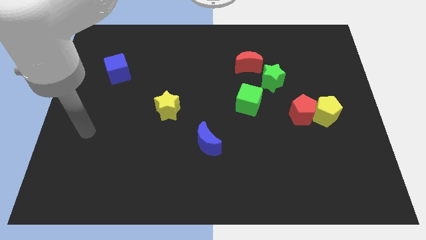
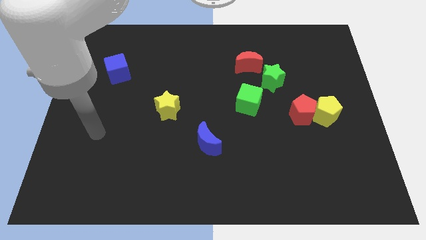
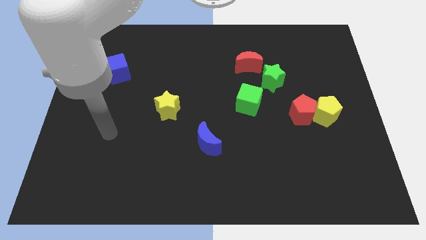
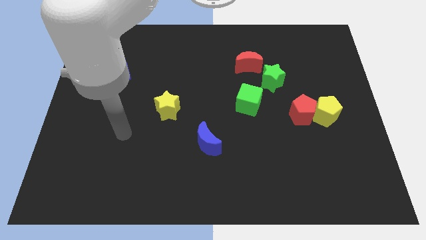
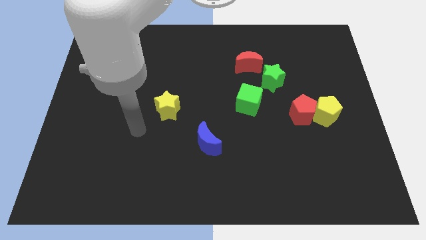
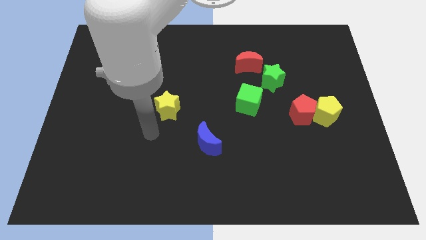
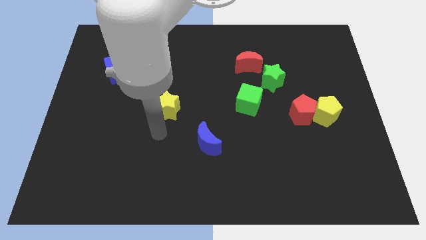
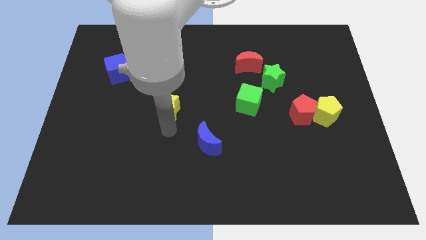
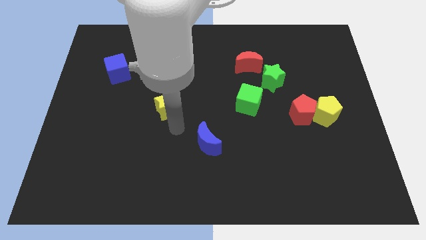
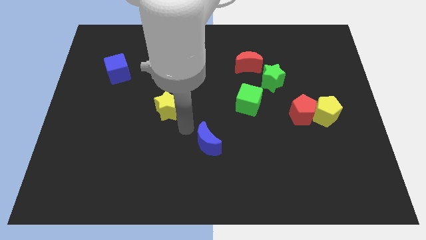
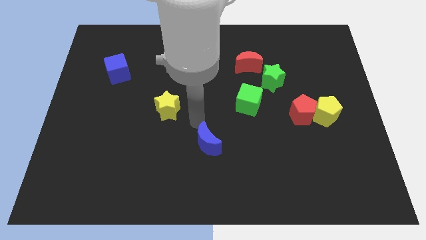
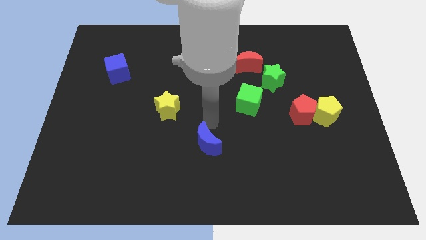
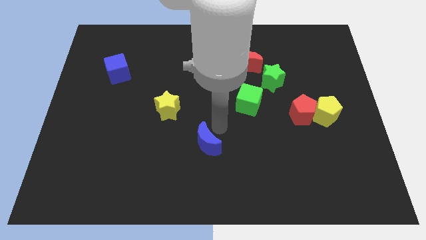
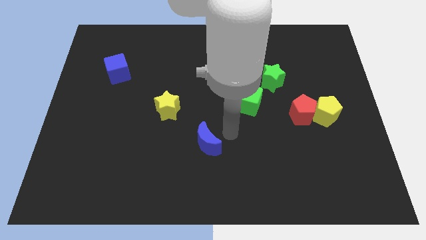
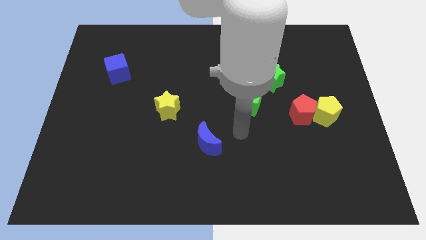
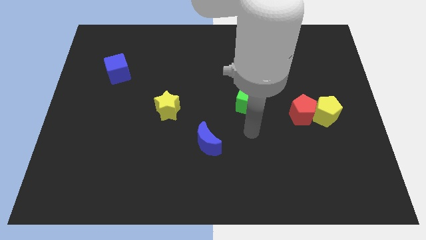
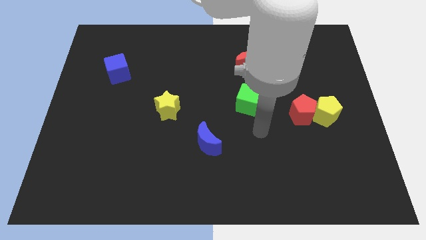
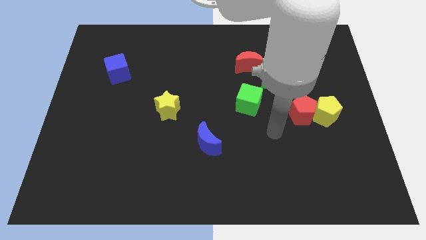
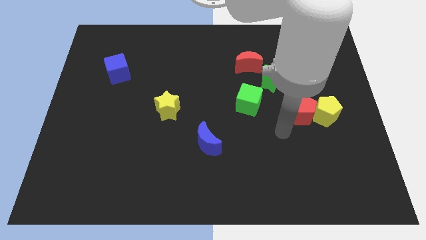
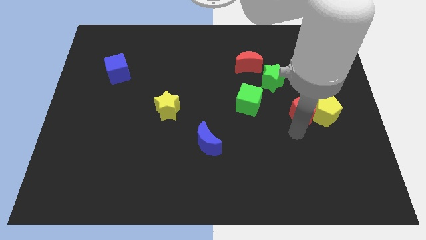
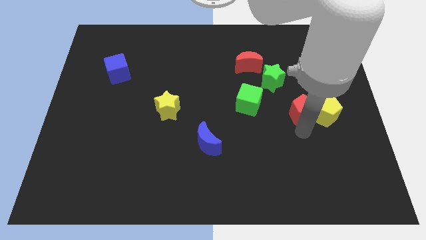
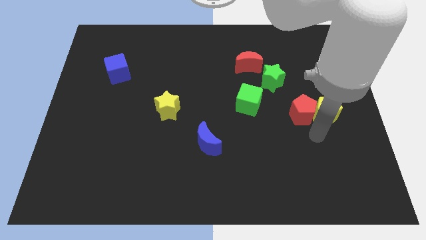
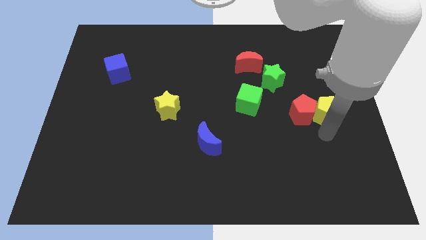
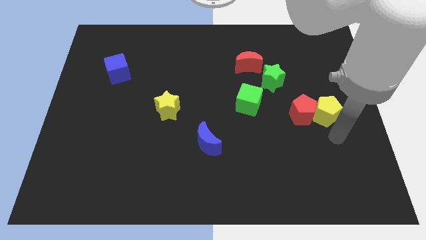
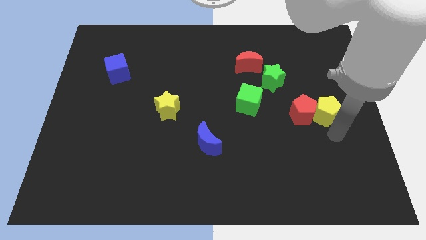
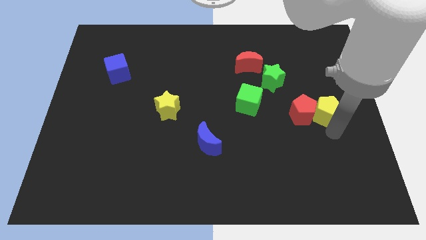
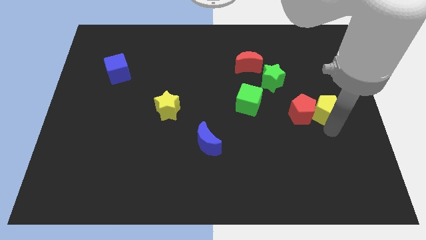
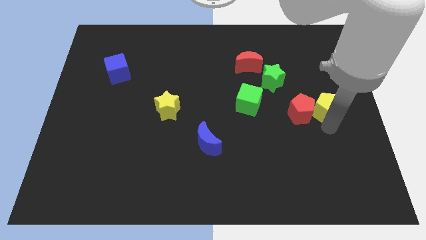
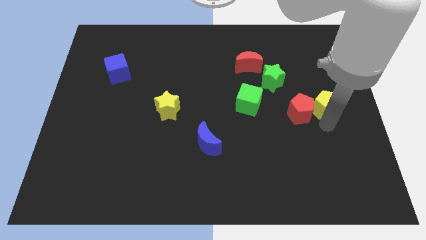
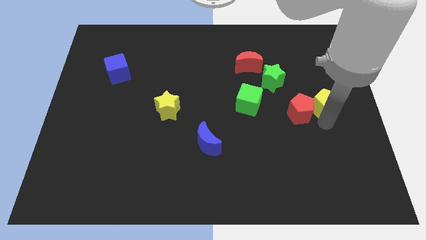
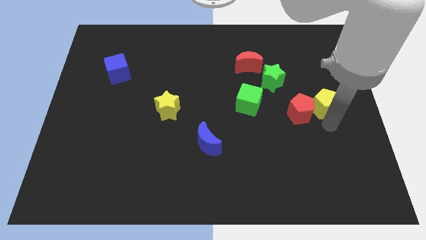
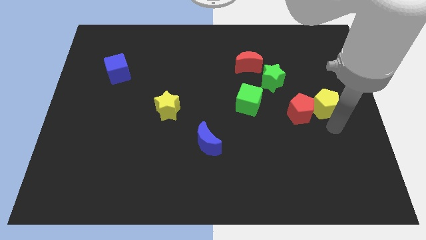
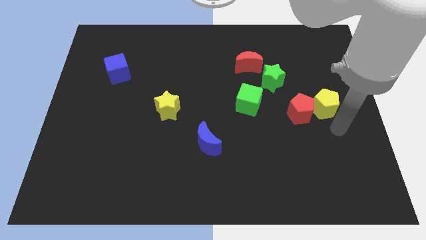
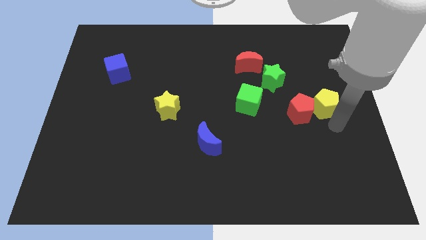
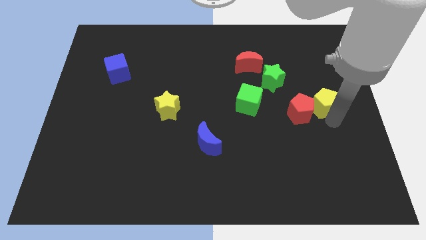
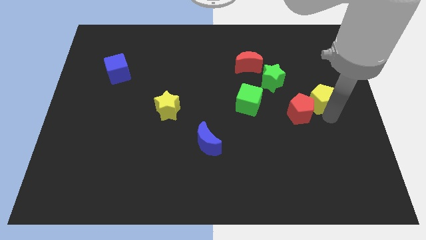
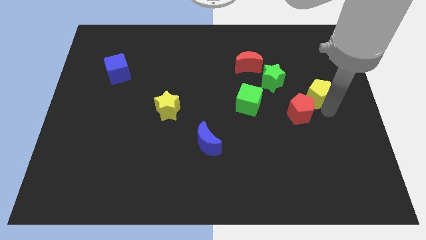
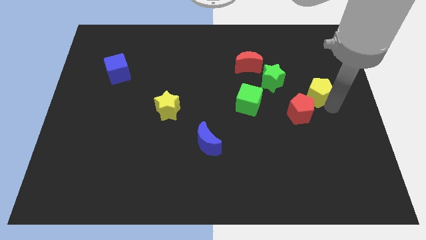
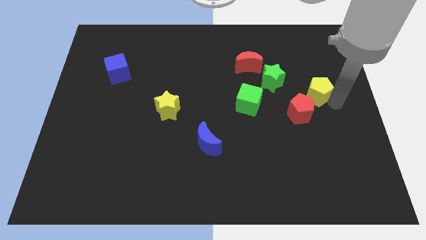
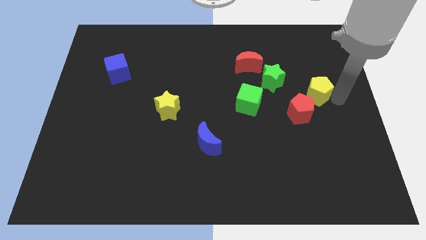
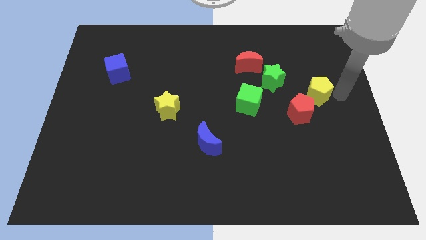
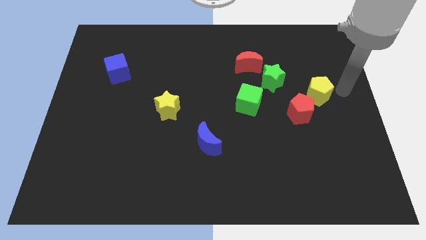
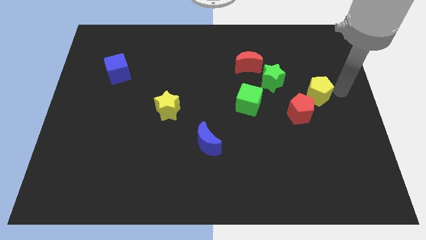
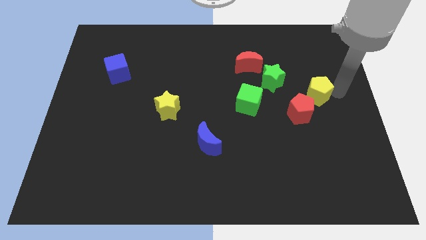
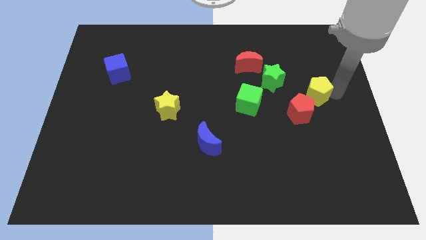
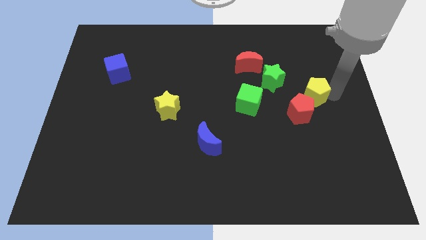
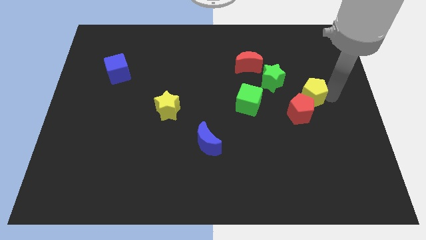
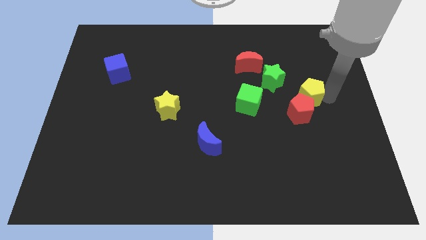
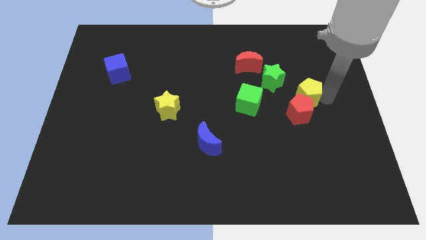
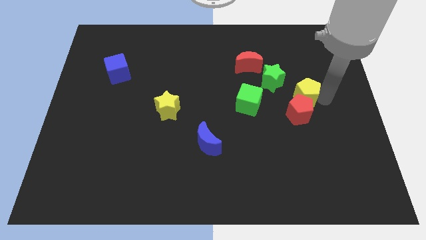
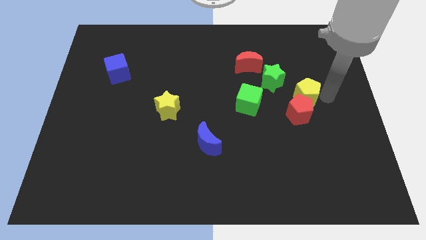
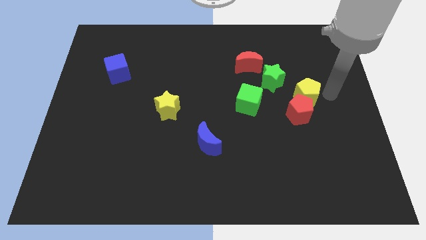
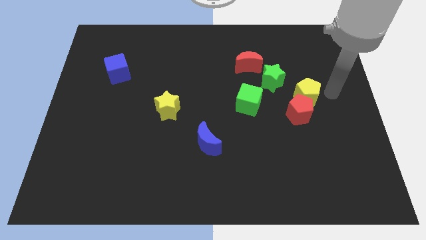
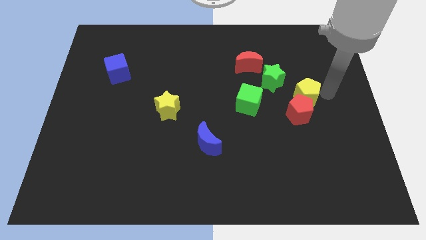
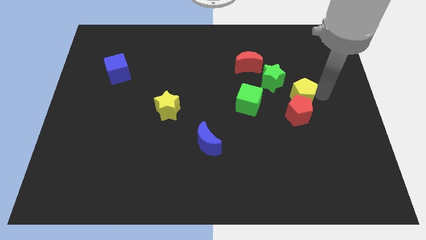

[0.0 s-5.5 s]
push the yellow pentagon a little bit upwards and left

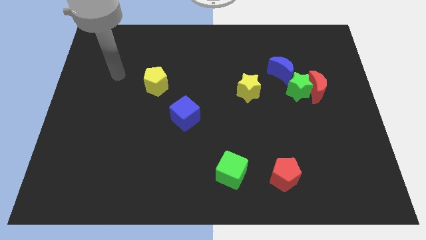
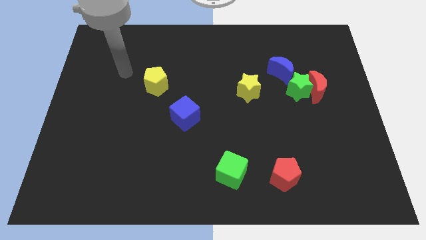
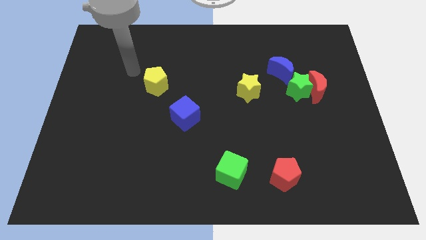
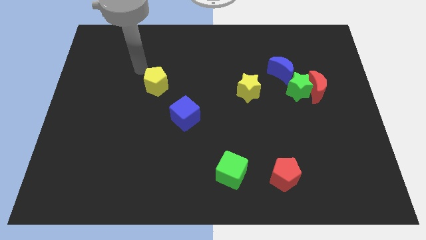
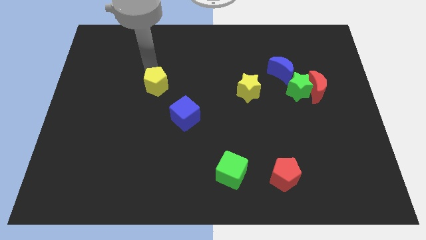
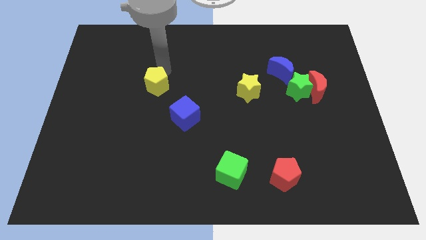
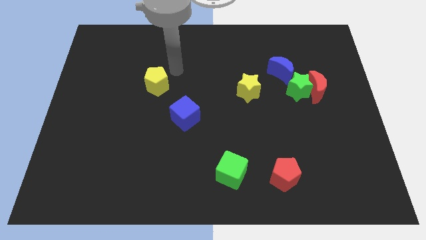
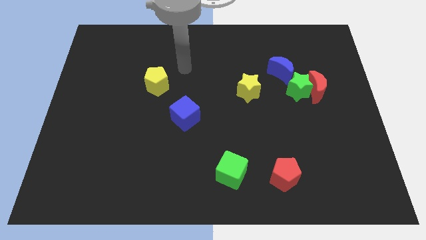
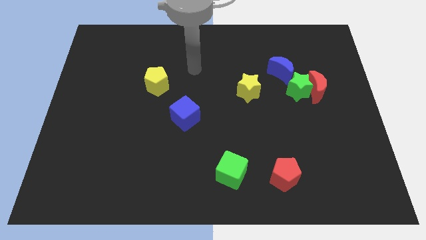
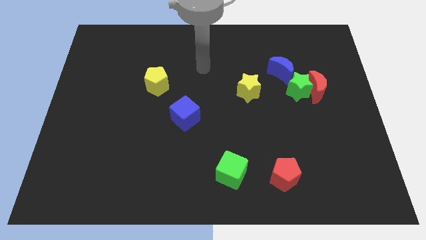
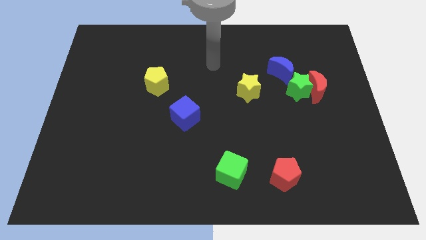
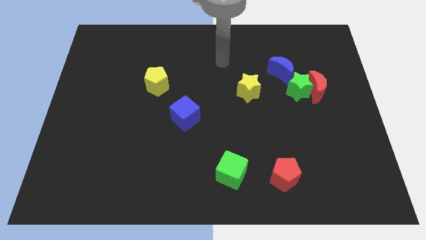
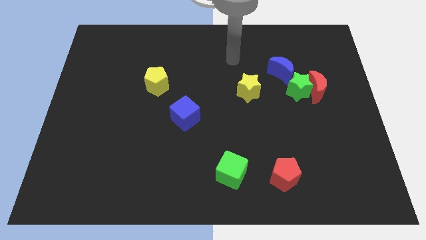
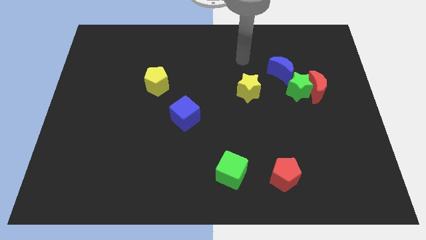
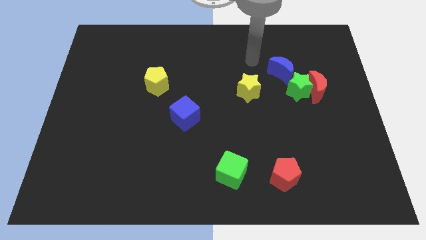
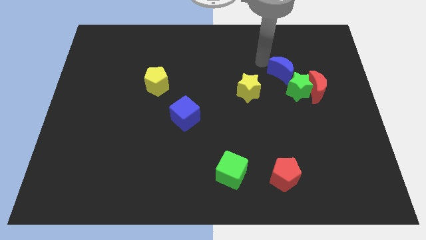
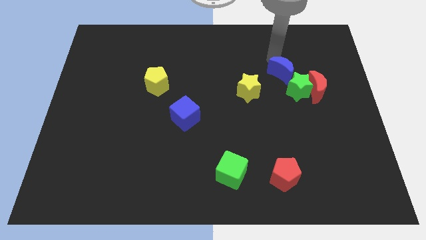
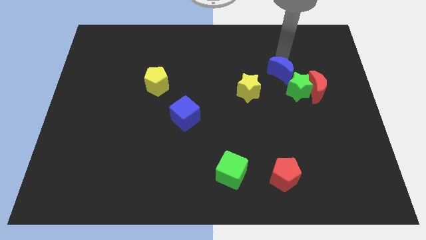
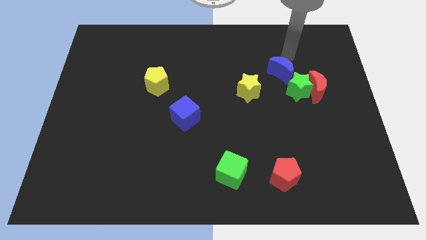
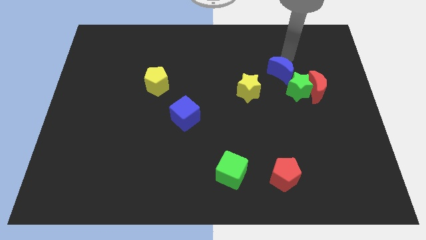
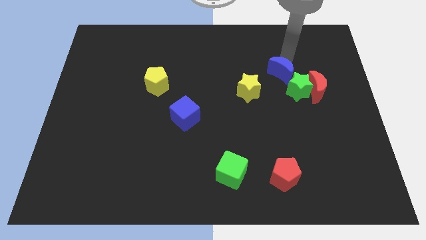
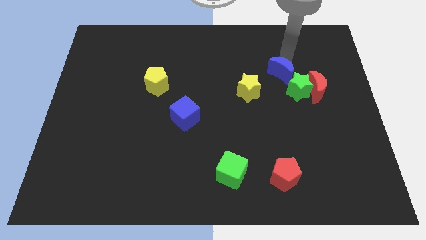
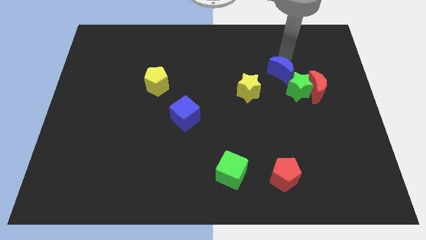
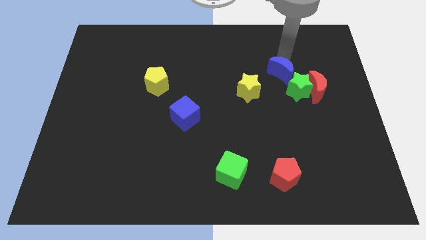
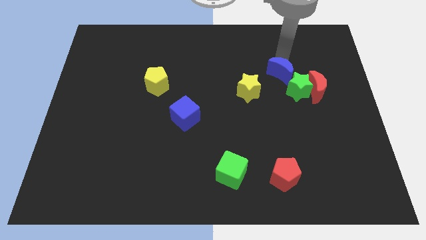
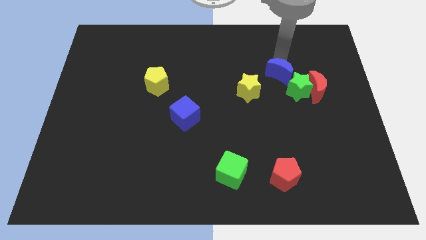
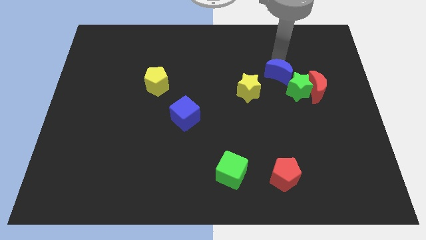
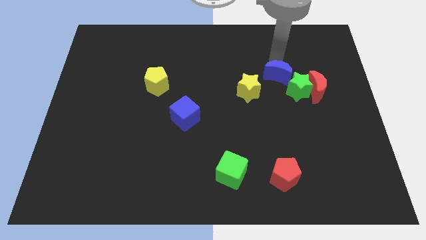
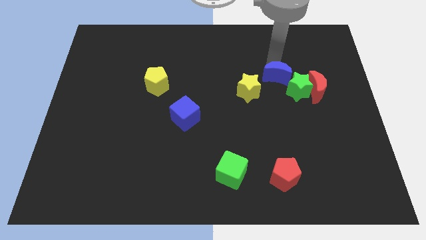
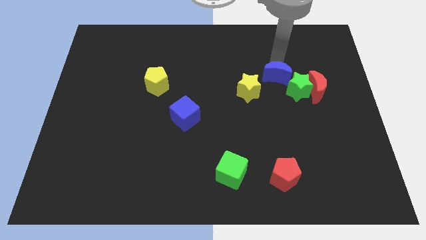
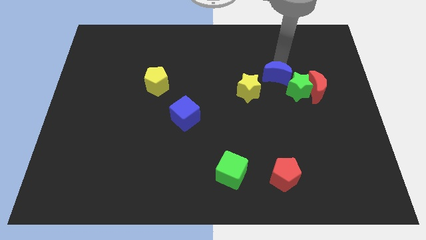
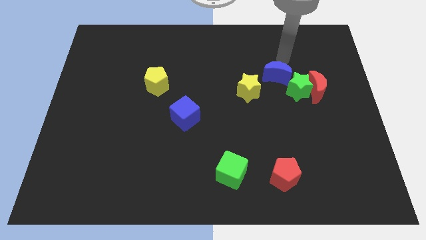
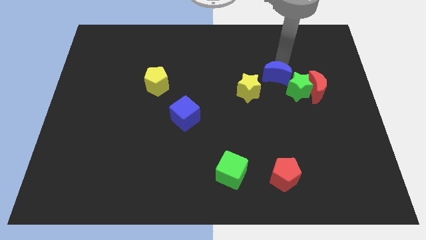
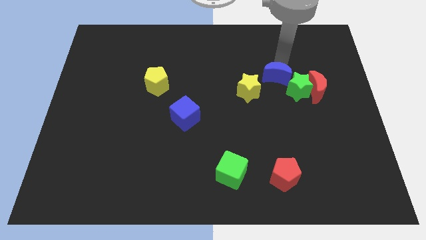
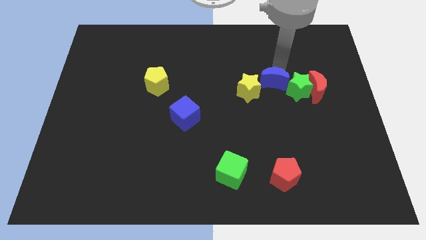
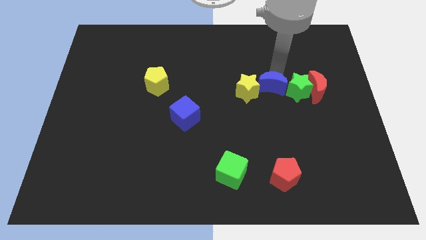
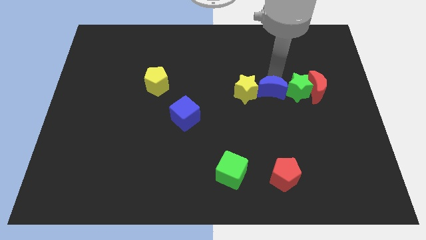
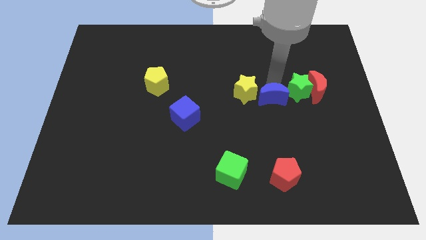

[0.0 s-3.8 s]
move the blue moon a little down and then left
